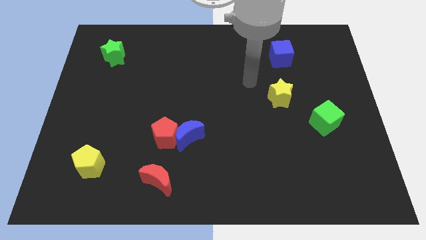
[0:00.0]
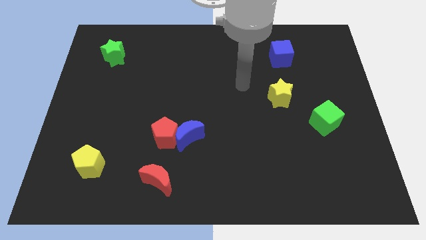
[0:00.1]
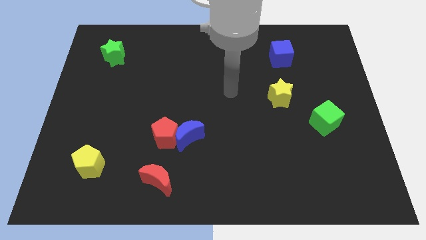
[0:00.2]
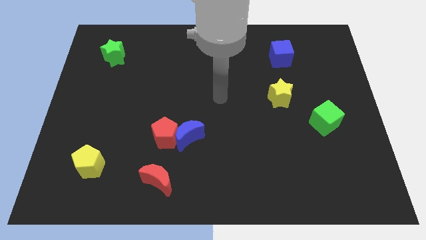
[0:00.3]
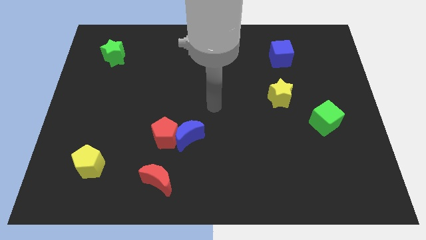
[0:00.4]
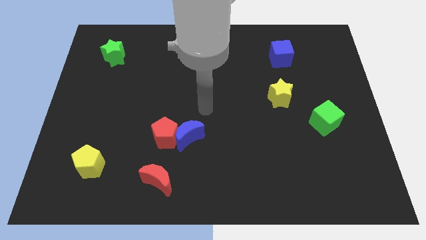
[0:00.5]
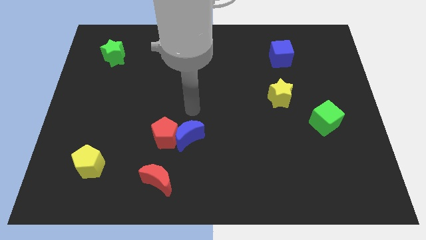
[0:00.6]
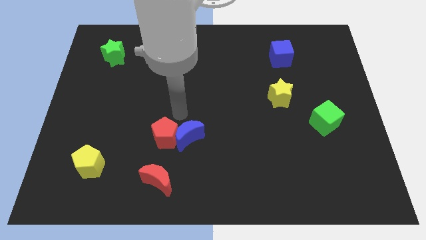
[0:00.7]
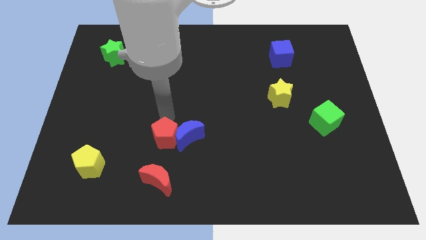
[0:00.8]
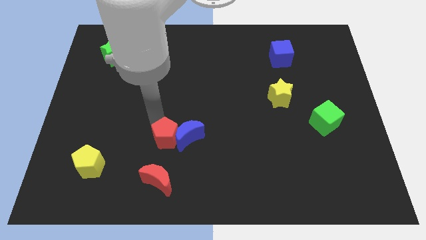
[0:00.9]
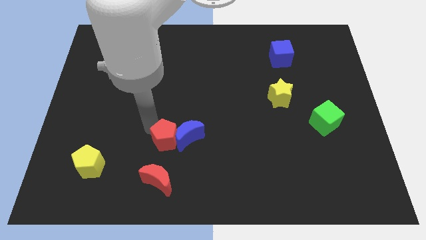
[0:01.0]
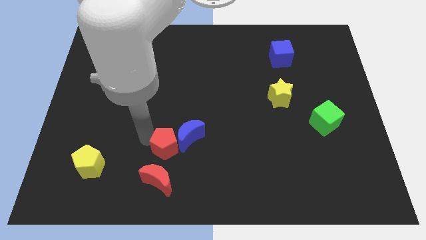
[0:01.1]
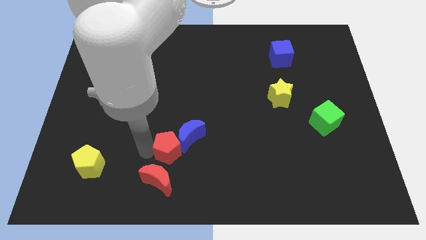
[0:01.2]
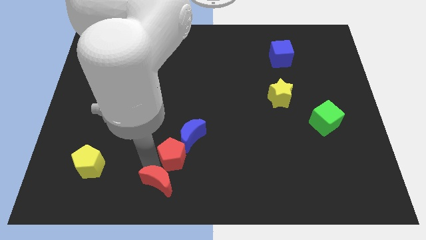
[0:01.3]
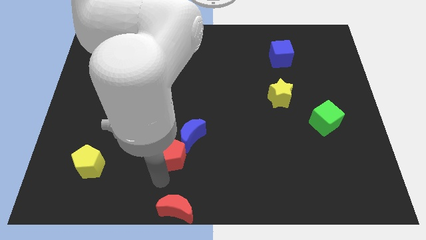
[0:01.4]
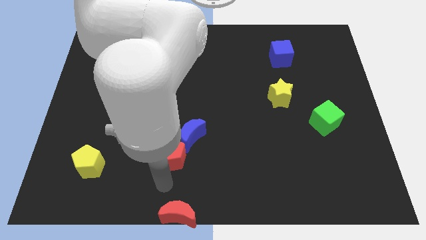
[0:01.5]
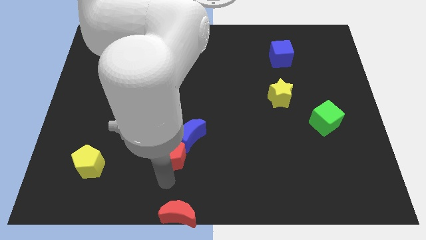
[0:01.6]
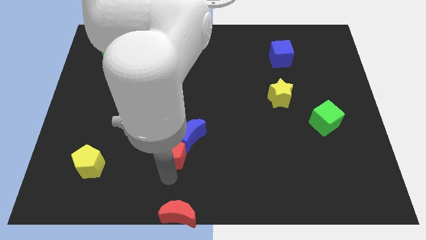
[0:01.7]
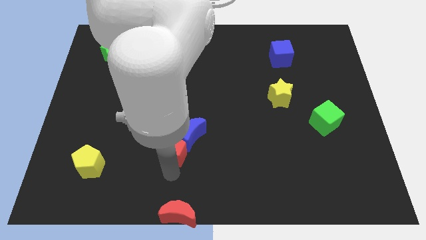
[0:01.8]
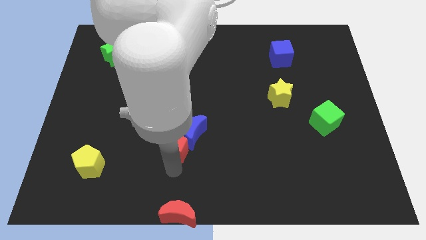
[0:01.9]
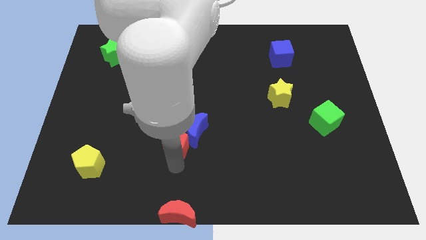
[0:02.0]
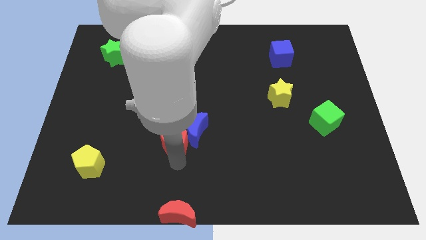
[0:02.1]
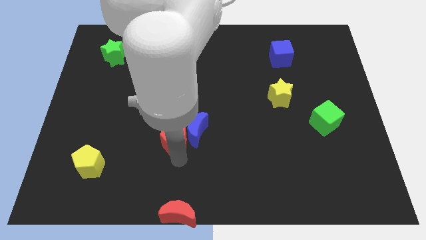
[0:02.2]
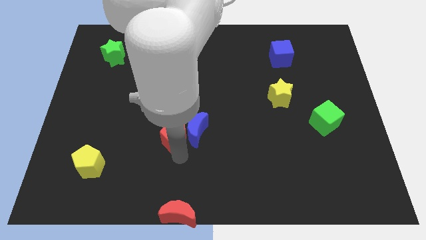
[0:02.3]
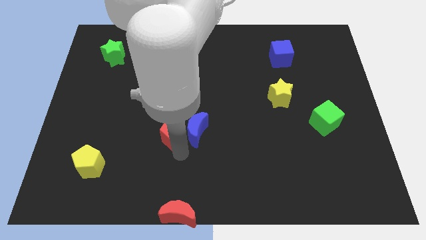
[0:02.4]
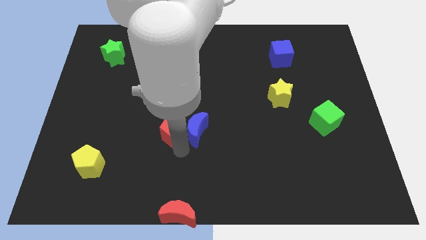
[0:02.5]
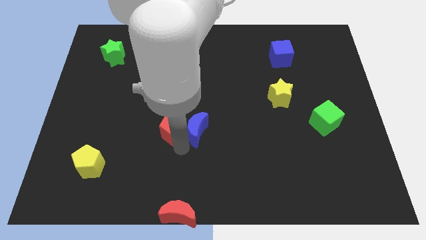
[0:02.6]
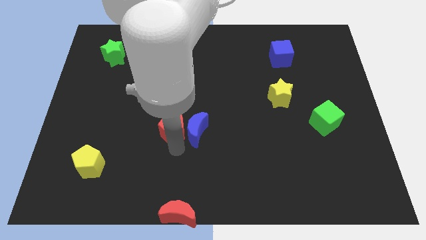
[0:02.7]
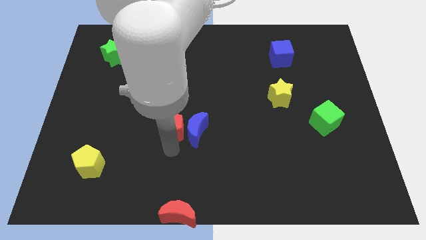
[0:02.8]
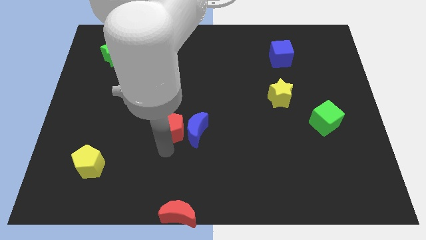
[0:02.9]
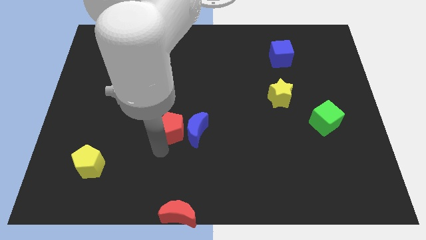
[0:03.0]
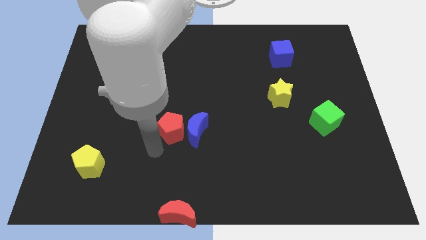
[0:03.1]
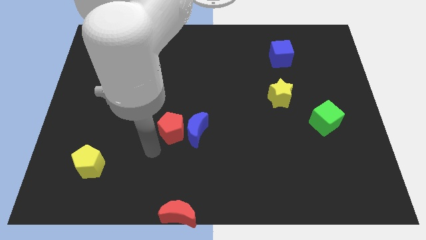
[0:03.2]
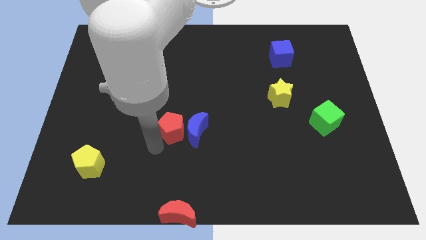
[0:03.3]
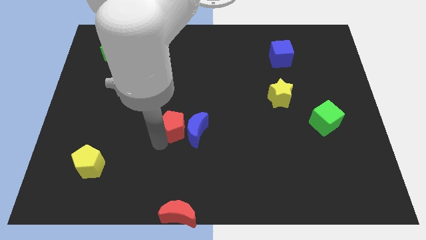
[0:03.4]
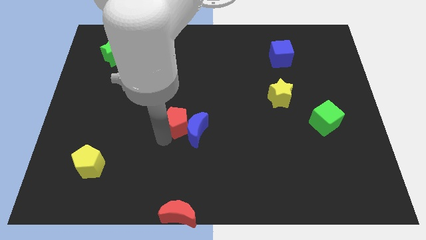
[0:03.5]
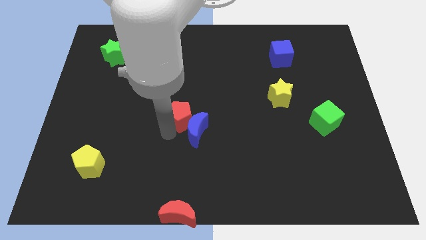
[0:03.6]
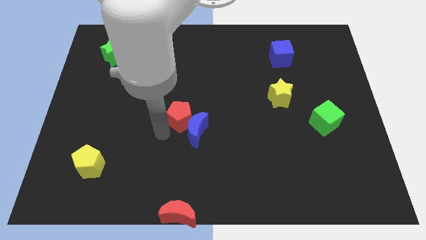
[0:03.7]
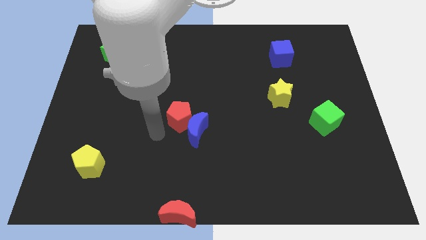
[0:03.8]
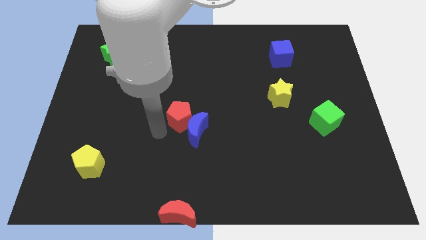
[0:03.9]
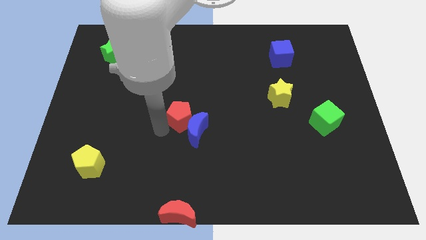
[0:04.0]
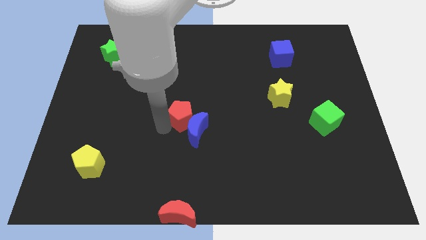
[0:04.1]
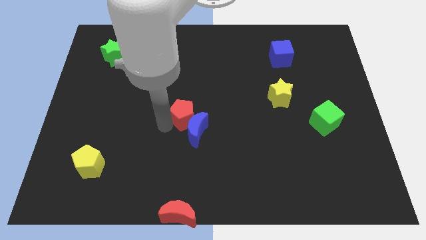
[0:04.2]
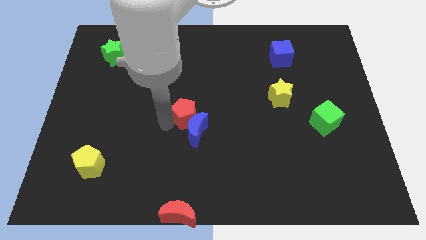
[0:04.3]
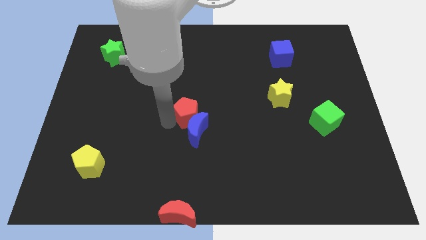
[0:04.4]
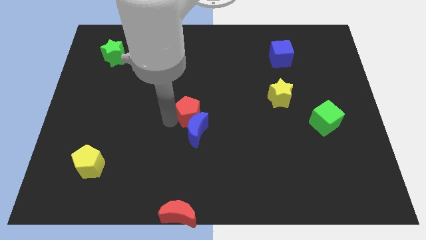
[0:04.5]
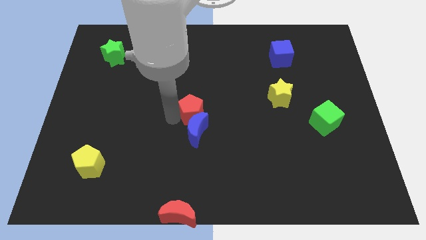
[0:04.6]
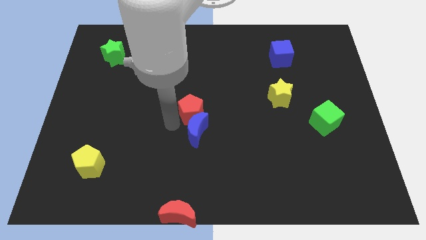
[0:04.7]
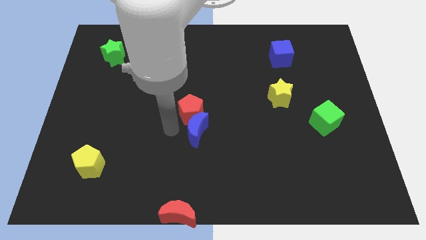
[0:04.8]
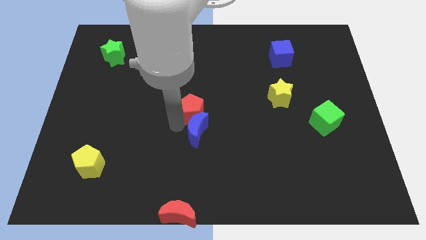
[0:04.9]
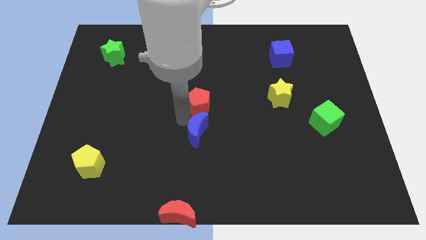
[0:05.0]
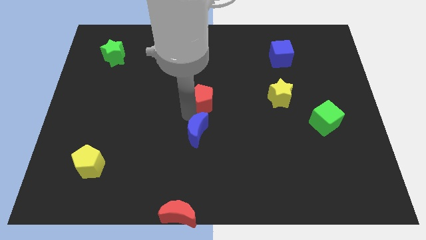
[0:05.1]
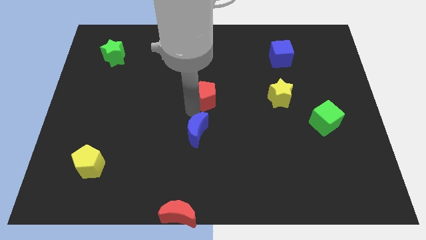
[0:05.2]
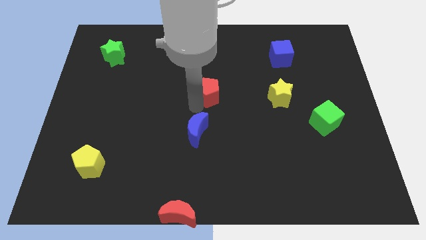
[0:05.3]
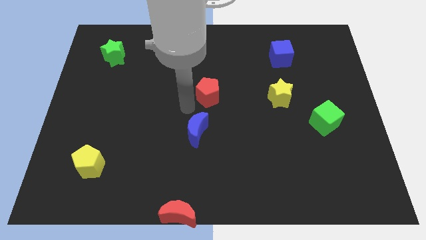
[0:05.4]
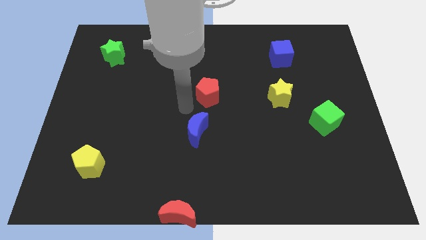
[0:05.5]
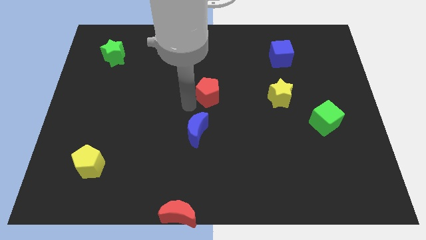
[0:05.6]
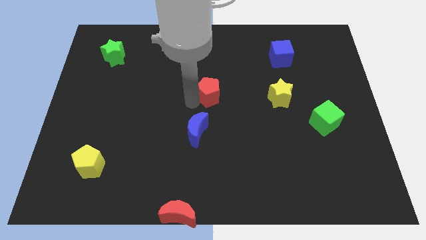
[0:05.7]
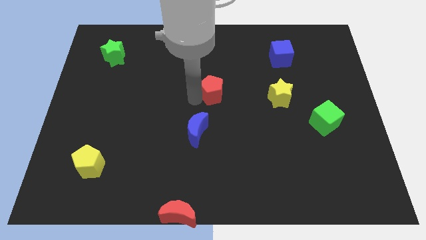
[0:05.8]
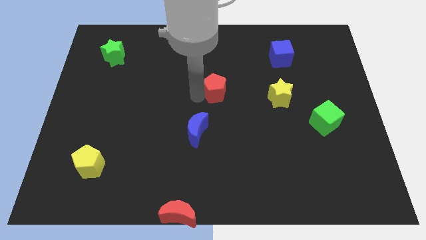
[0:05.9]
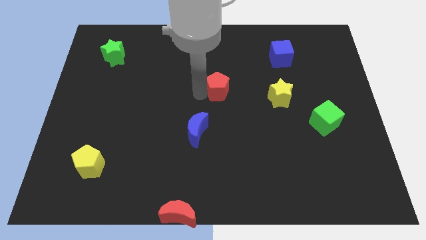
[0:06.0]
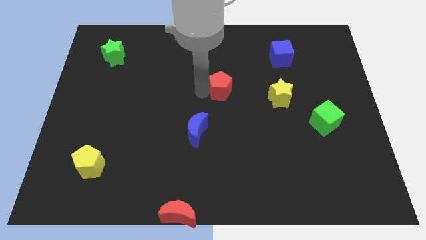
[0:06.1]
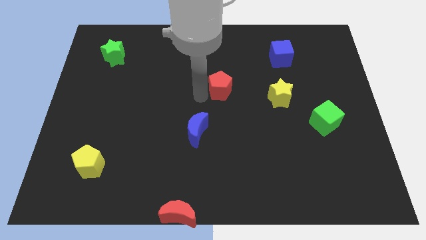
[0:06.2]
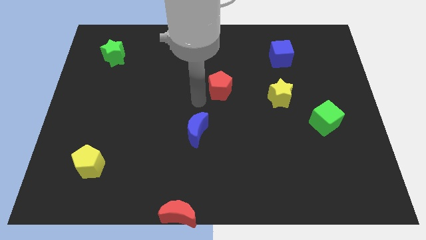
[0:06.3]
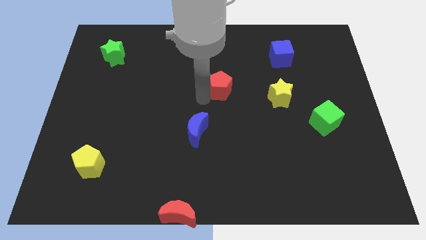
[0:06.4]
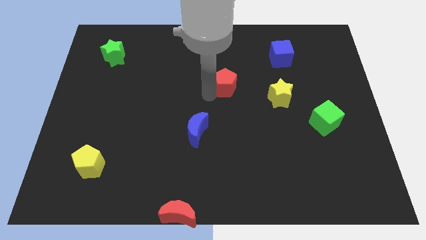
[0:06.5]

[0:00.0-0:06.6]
move the red pentagon up and right

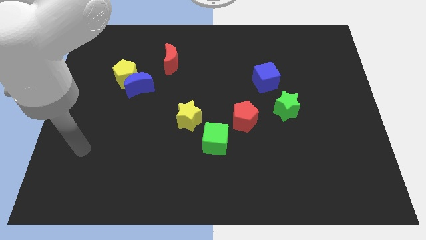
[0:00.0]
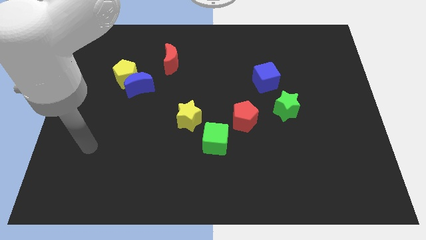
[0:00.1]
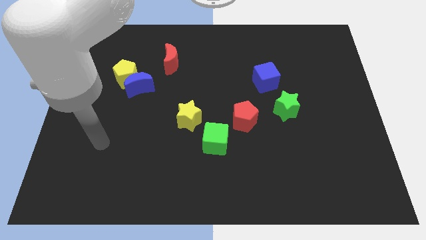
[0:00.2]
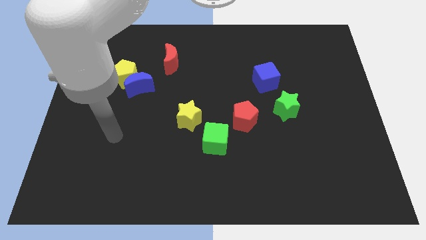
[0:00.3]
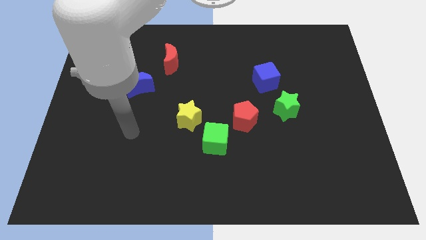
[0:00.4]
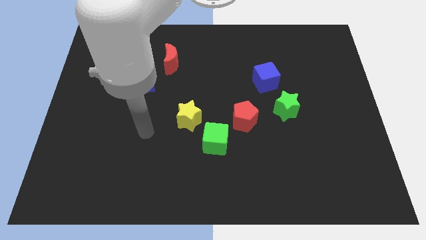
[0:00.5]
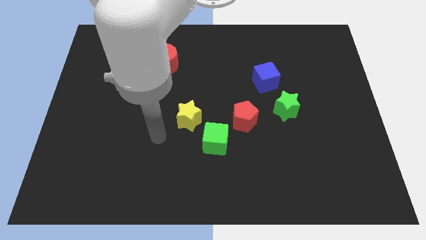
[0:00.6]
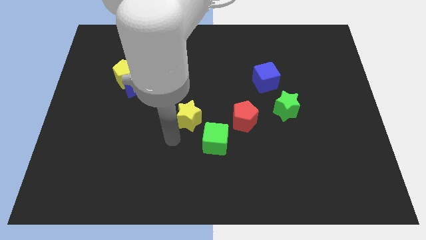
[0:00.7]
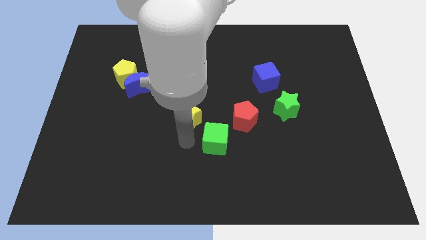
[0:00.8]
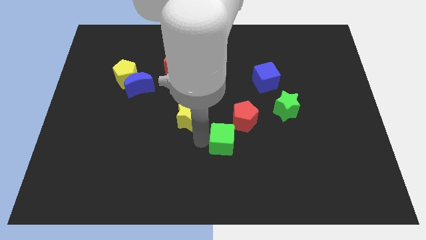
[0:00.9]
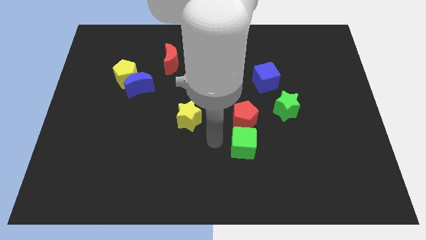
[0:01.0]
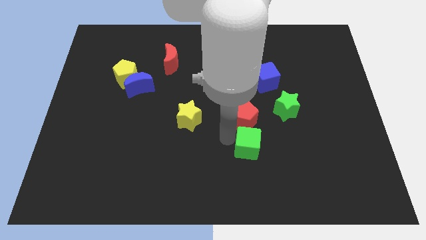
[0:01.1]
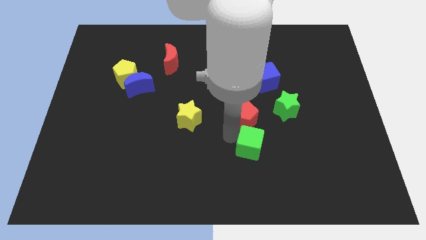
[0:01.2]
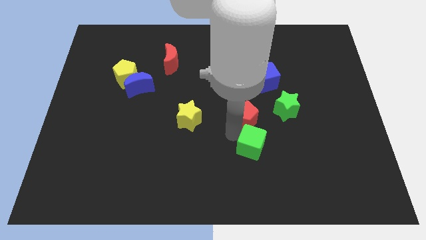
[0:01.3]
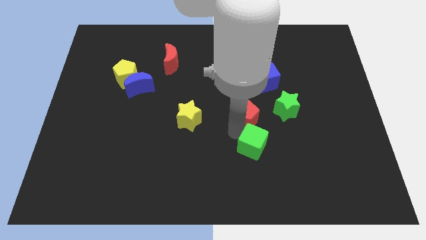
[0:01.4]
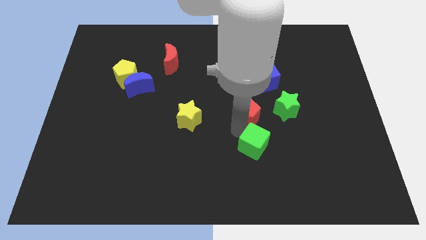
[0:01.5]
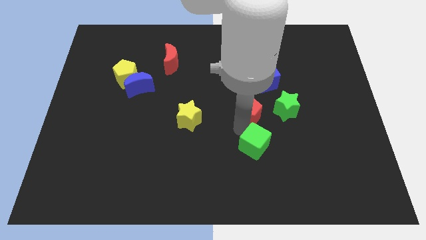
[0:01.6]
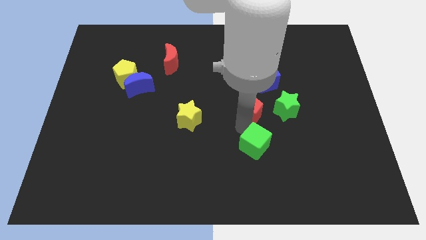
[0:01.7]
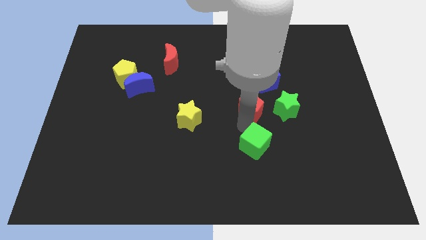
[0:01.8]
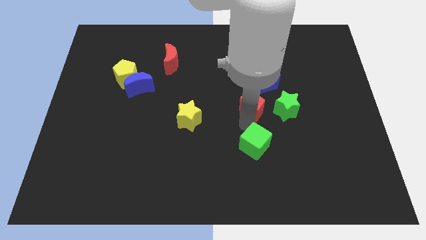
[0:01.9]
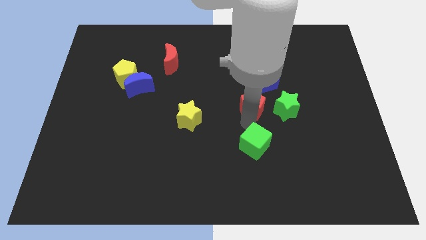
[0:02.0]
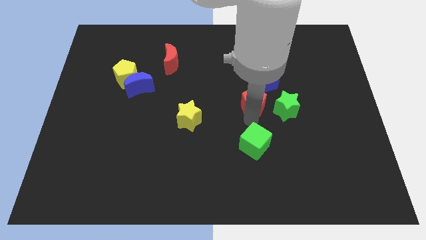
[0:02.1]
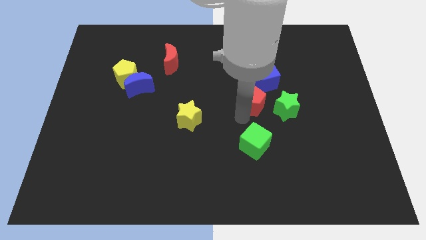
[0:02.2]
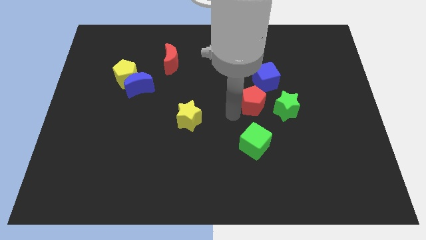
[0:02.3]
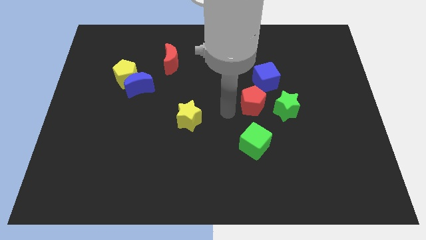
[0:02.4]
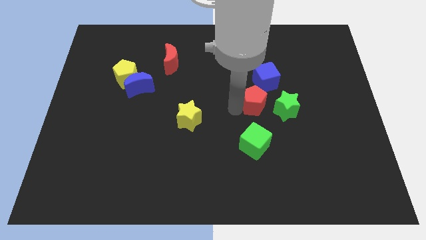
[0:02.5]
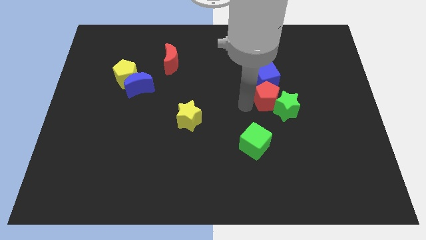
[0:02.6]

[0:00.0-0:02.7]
move the red pentagon a little bit diagonally upwards and to the right
